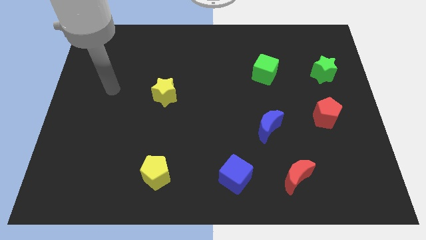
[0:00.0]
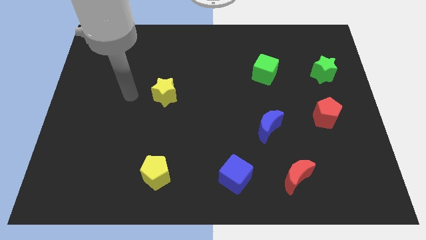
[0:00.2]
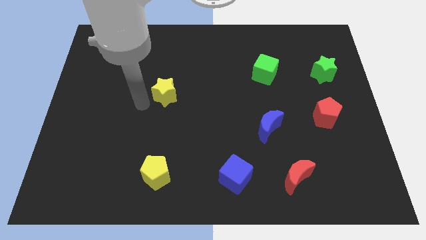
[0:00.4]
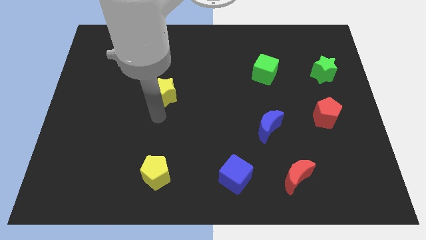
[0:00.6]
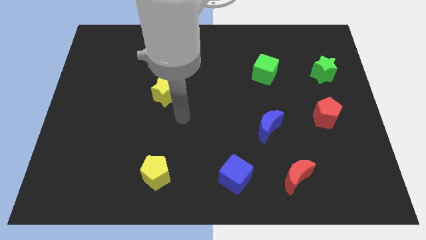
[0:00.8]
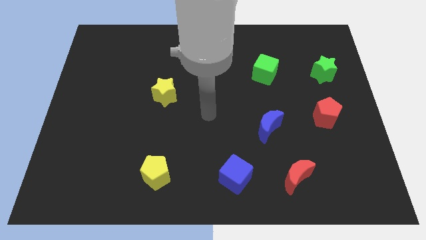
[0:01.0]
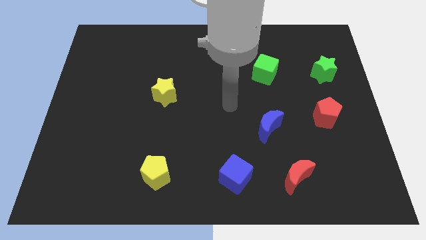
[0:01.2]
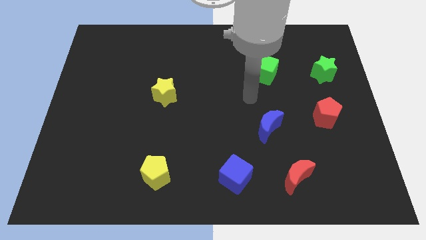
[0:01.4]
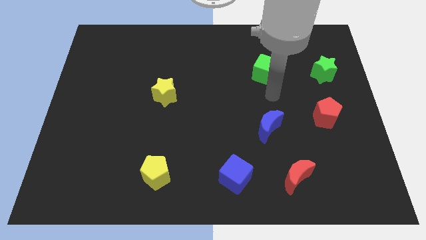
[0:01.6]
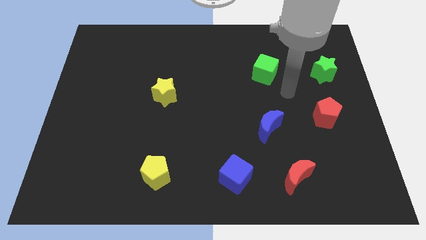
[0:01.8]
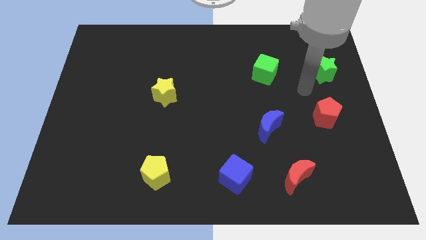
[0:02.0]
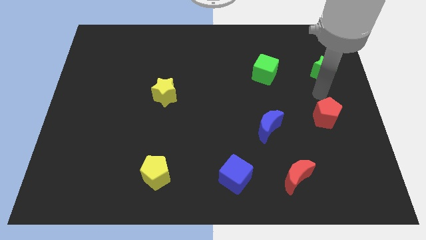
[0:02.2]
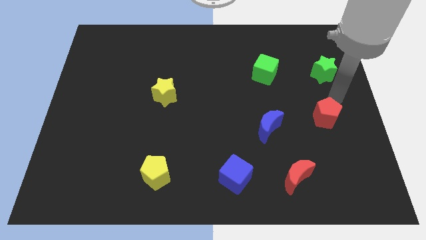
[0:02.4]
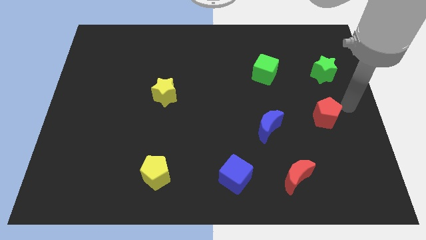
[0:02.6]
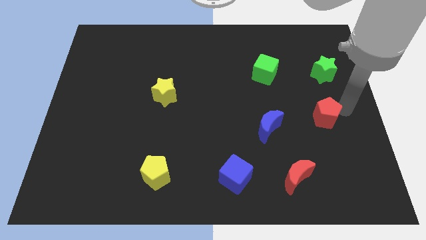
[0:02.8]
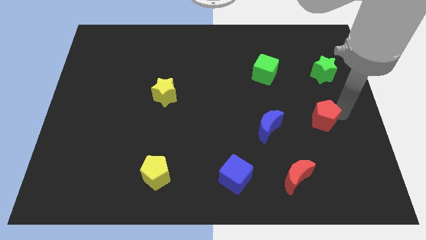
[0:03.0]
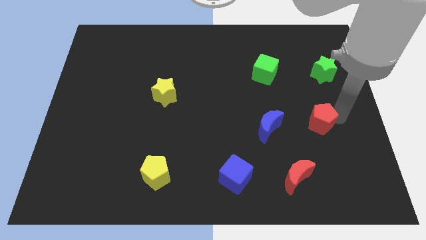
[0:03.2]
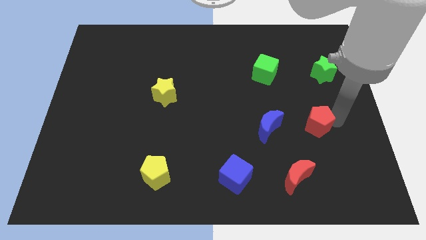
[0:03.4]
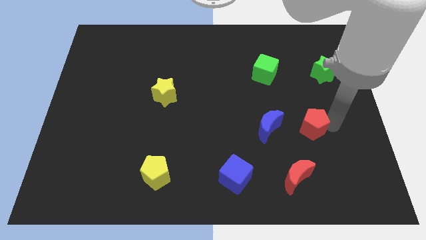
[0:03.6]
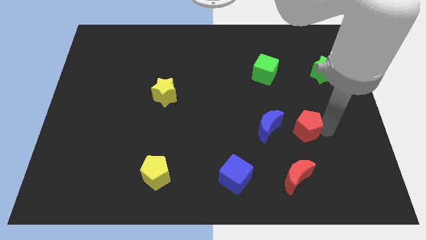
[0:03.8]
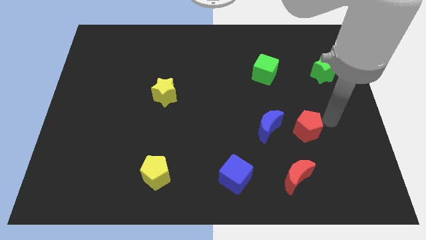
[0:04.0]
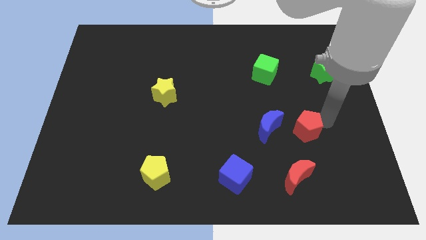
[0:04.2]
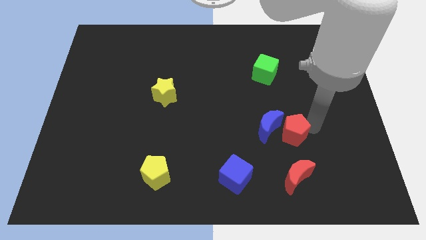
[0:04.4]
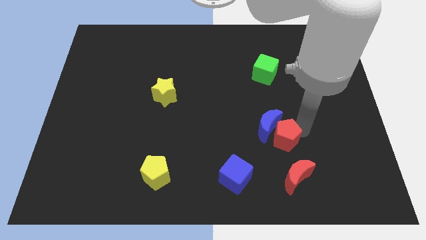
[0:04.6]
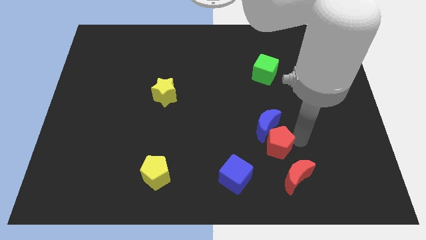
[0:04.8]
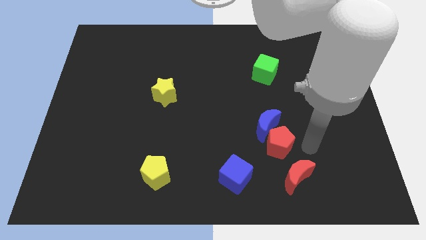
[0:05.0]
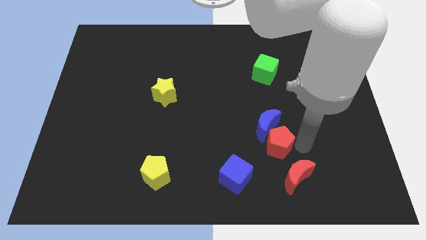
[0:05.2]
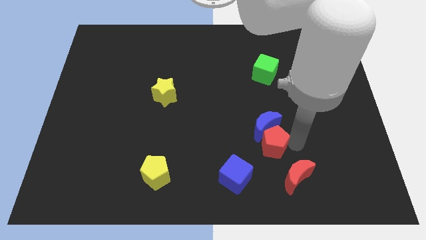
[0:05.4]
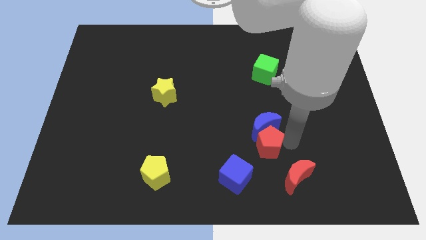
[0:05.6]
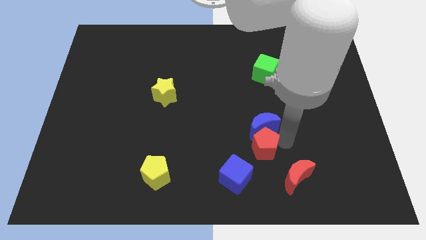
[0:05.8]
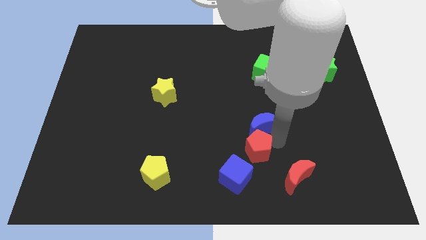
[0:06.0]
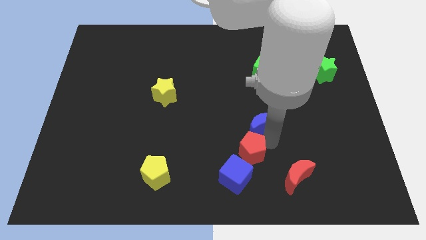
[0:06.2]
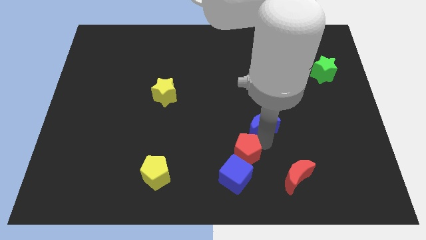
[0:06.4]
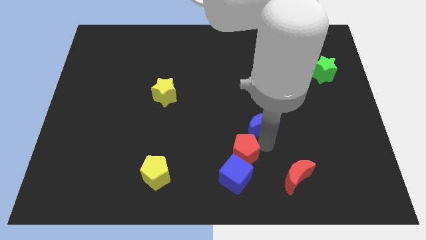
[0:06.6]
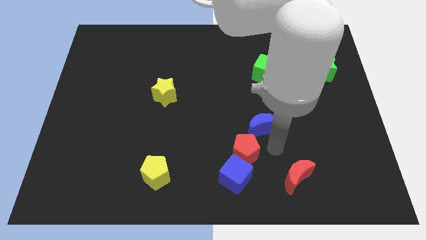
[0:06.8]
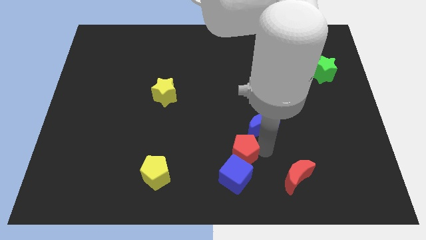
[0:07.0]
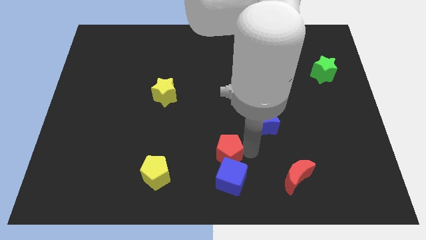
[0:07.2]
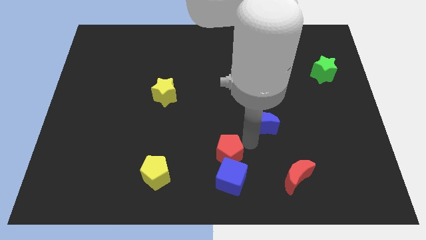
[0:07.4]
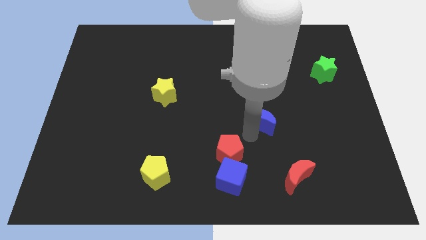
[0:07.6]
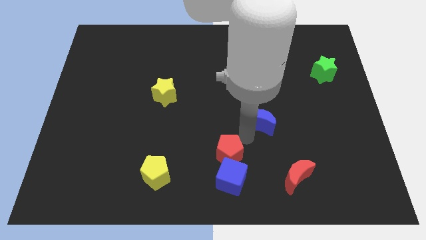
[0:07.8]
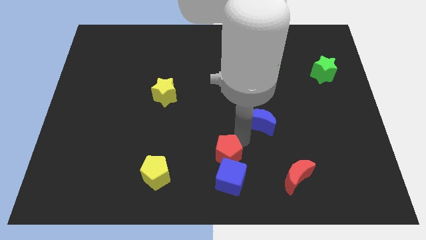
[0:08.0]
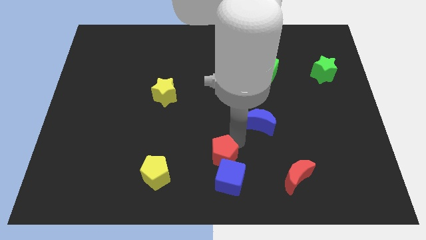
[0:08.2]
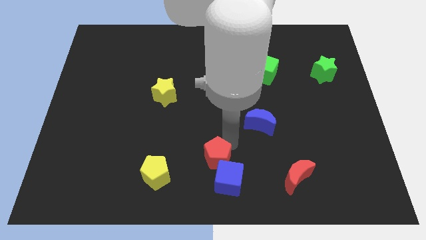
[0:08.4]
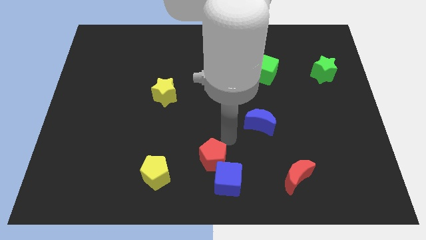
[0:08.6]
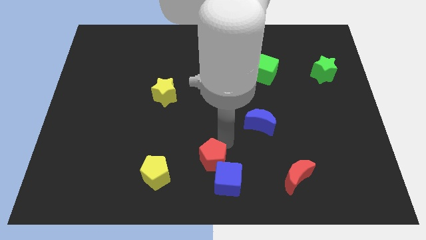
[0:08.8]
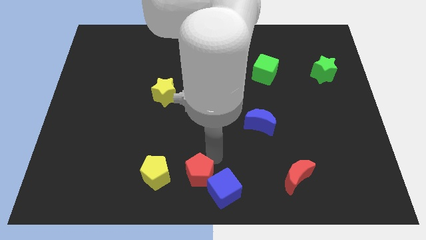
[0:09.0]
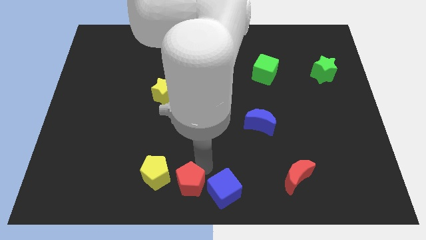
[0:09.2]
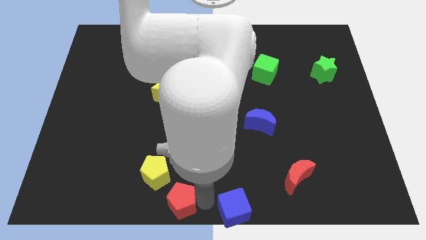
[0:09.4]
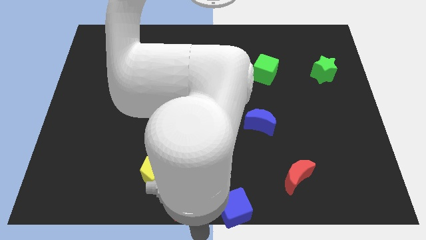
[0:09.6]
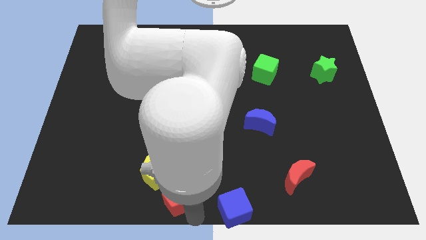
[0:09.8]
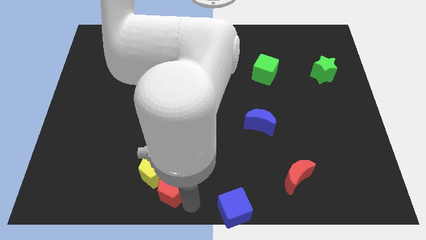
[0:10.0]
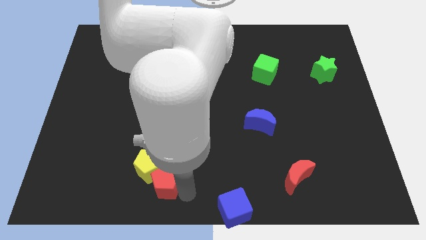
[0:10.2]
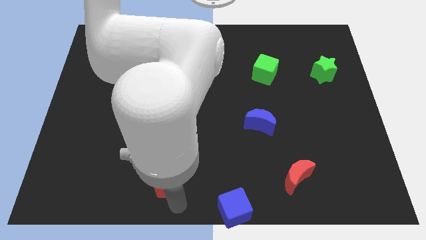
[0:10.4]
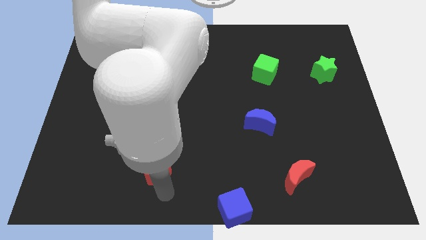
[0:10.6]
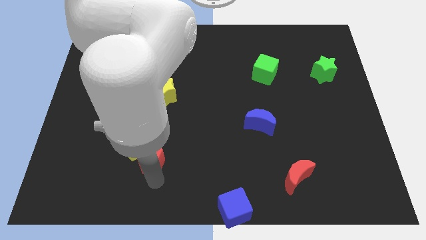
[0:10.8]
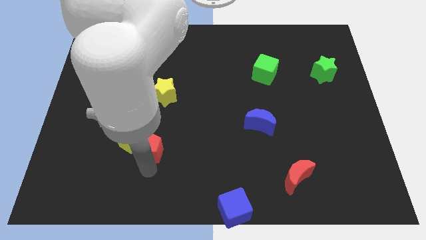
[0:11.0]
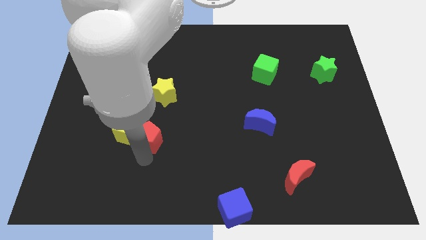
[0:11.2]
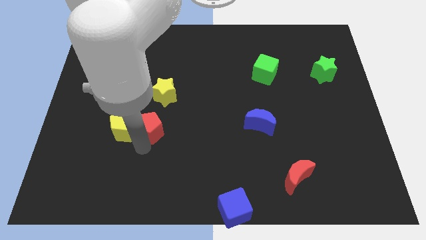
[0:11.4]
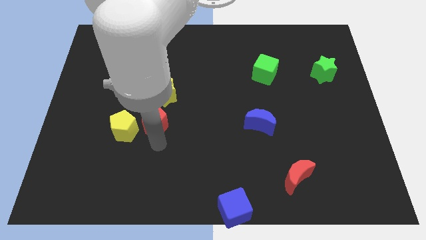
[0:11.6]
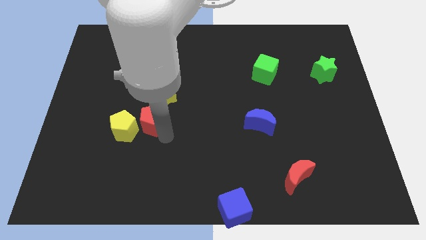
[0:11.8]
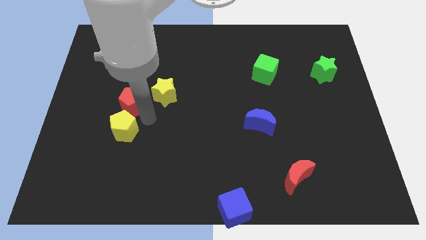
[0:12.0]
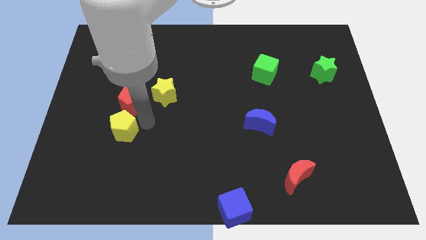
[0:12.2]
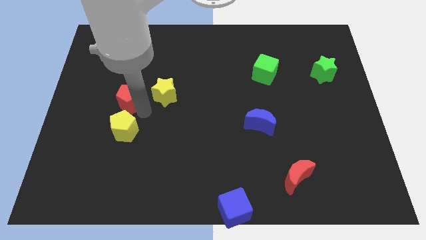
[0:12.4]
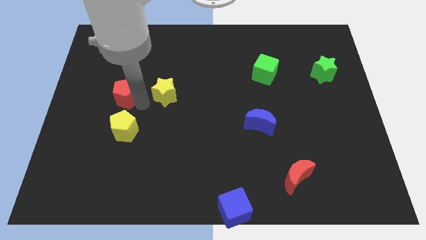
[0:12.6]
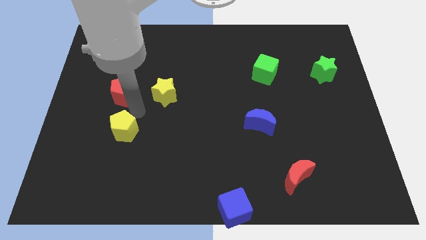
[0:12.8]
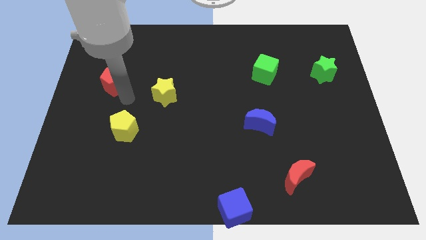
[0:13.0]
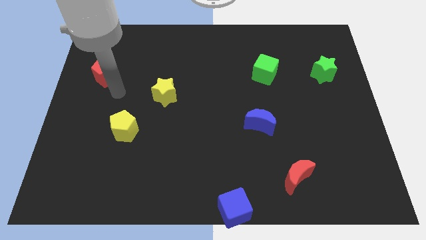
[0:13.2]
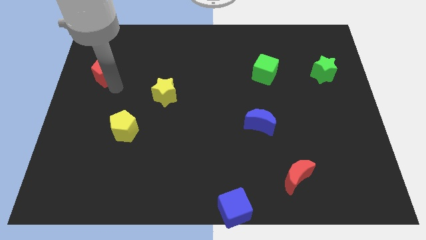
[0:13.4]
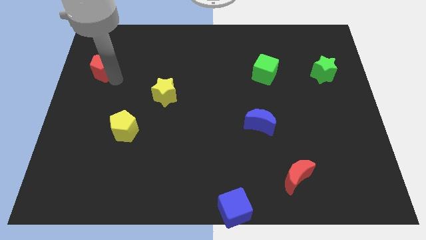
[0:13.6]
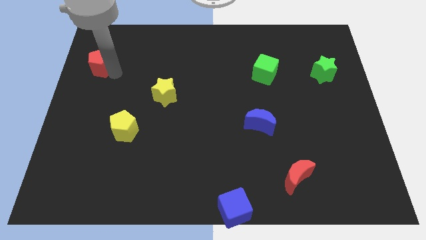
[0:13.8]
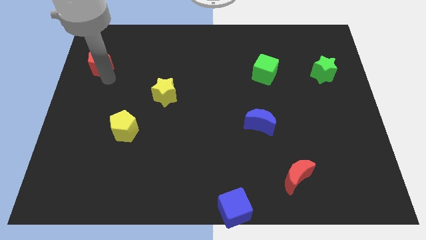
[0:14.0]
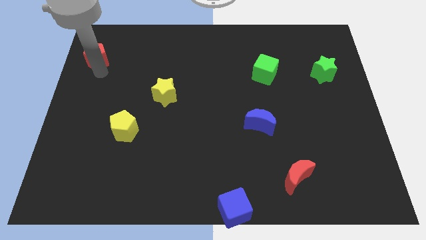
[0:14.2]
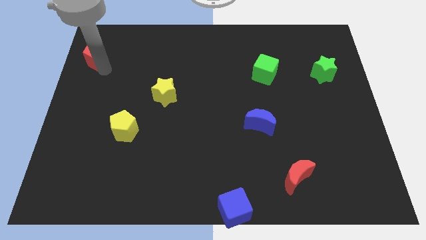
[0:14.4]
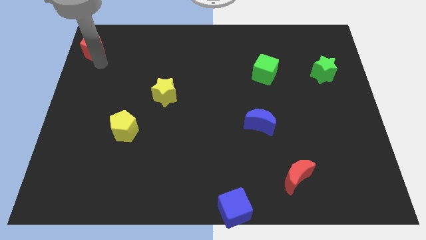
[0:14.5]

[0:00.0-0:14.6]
put the red pentagon to the top left

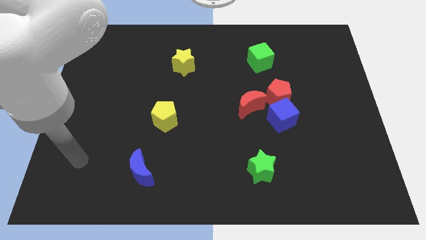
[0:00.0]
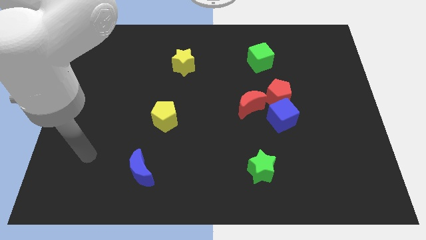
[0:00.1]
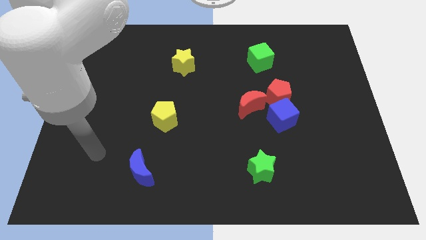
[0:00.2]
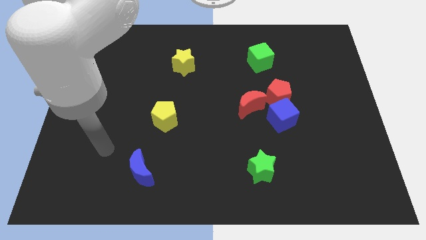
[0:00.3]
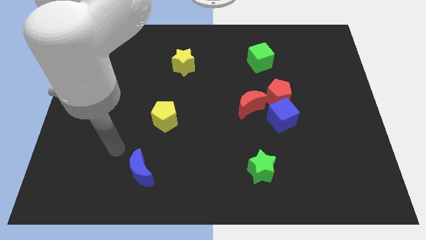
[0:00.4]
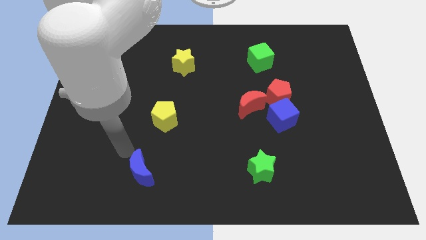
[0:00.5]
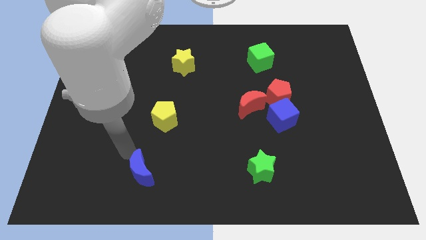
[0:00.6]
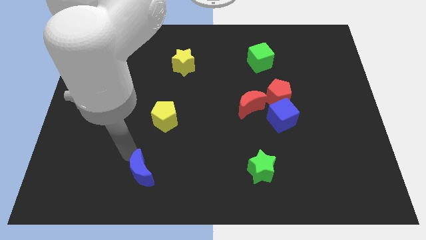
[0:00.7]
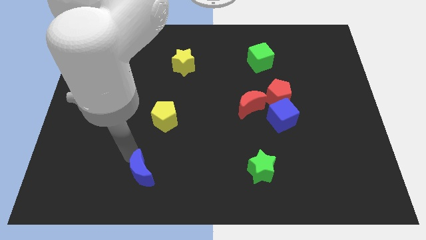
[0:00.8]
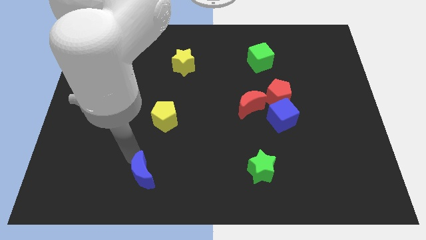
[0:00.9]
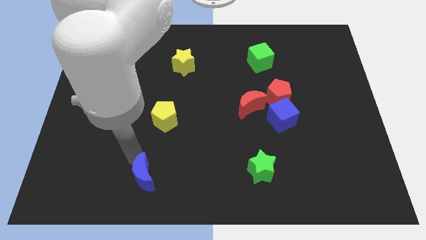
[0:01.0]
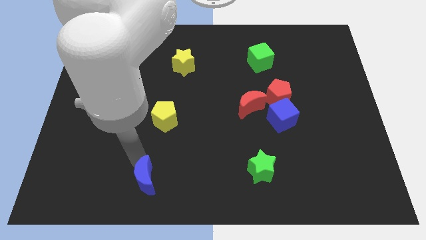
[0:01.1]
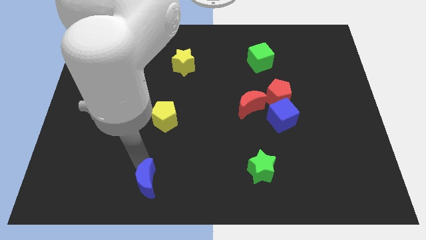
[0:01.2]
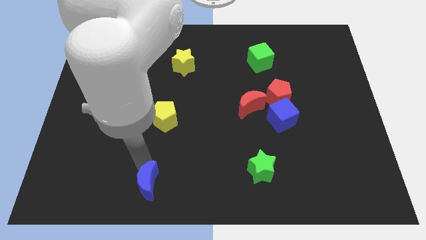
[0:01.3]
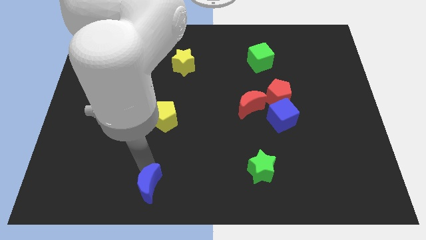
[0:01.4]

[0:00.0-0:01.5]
slide the blue moon to the bottom side
